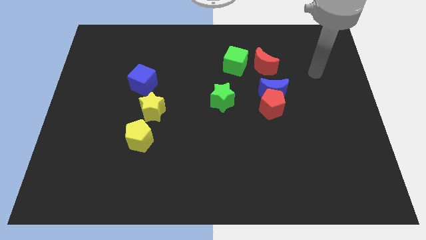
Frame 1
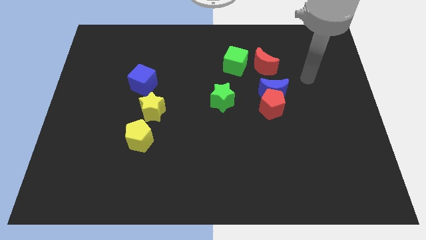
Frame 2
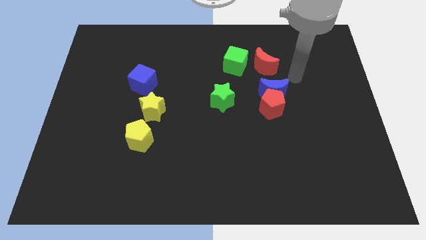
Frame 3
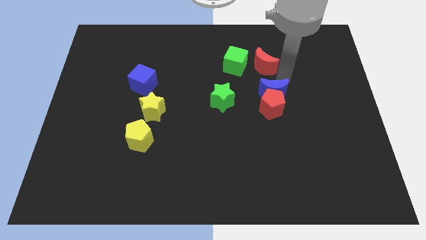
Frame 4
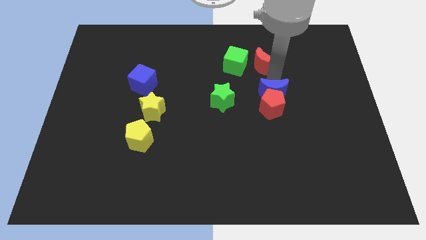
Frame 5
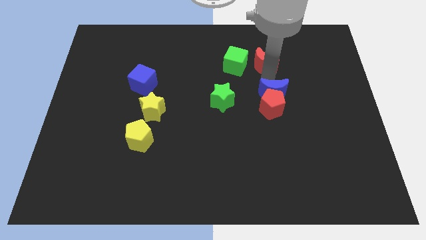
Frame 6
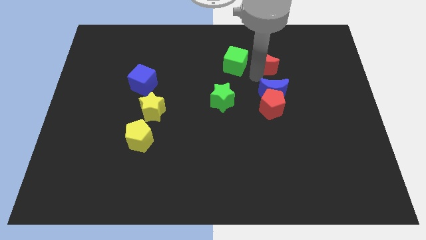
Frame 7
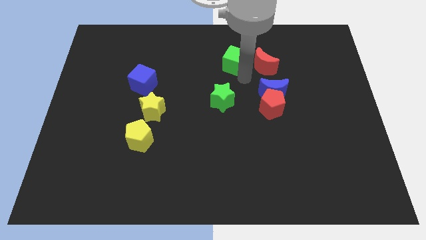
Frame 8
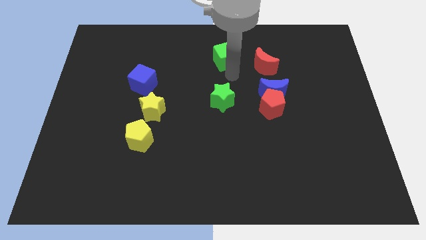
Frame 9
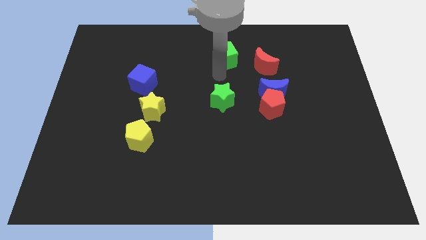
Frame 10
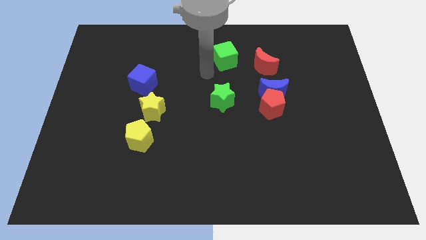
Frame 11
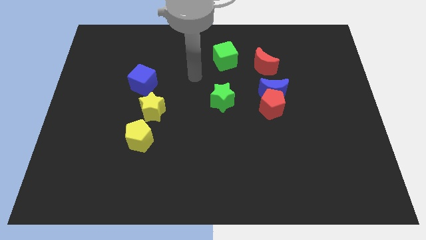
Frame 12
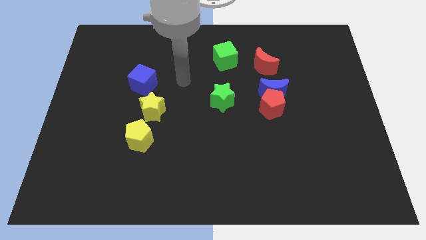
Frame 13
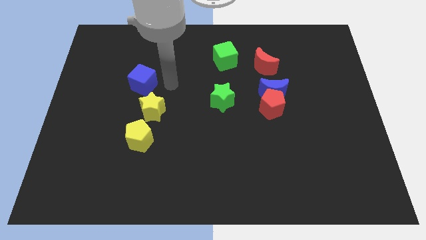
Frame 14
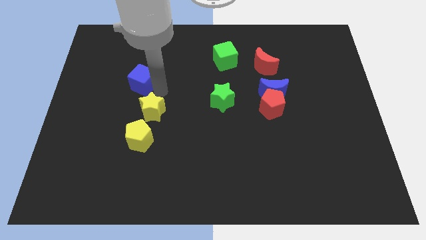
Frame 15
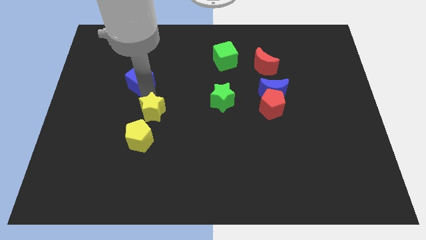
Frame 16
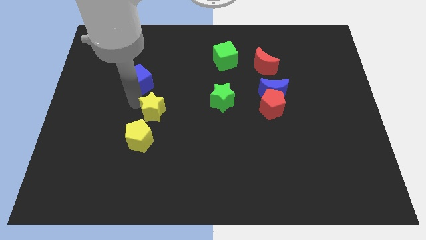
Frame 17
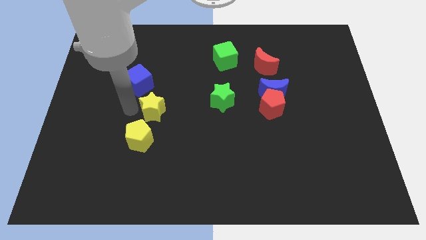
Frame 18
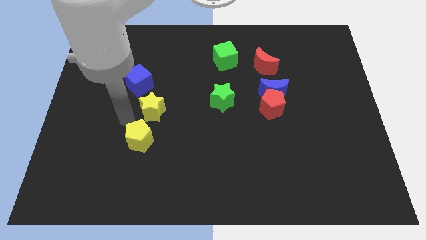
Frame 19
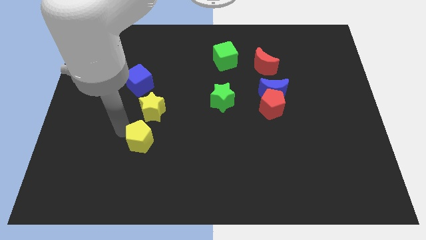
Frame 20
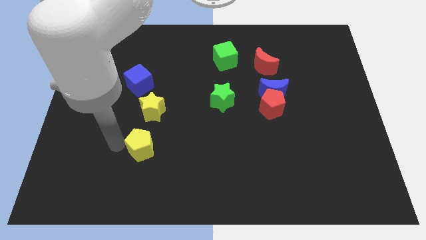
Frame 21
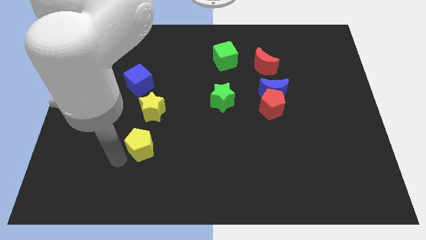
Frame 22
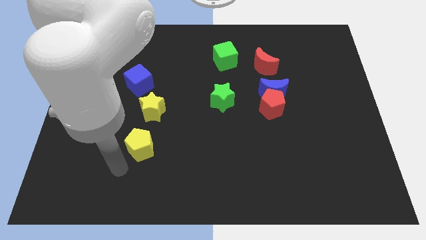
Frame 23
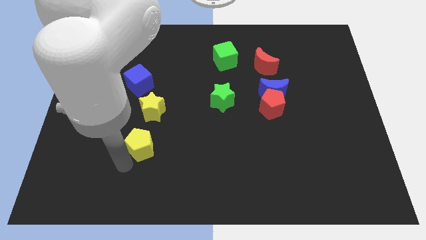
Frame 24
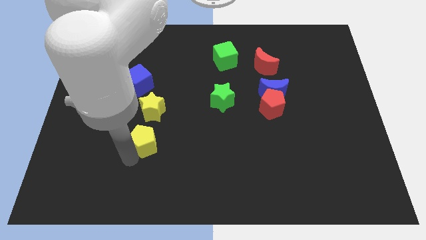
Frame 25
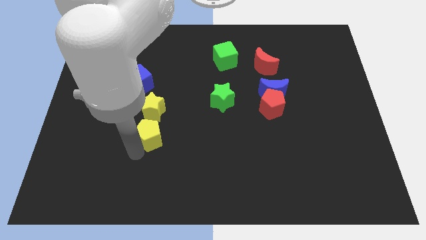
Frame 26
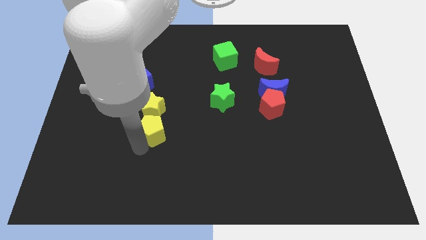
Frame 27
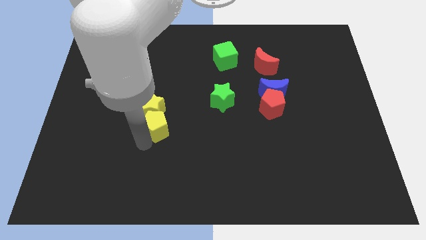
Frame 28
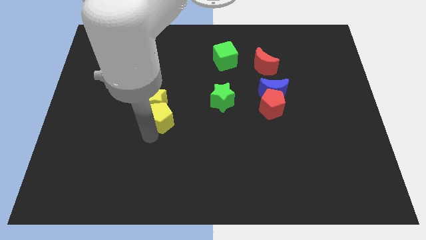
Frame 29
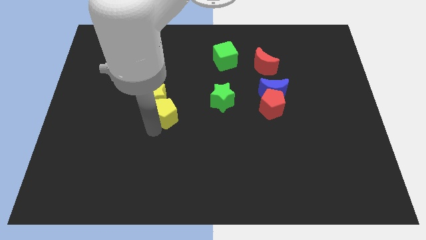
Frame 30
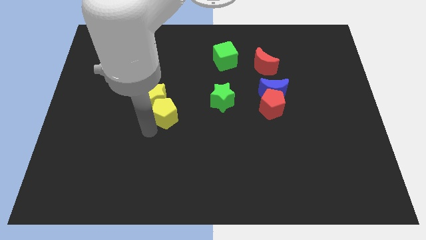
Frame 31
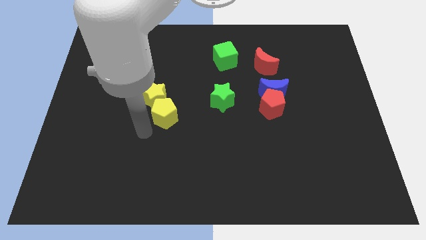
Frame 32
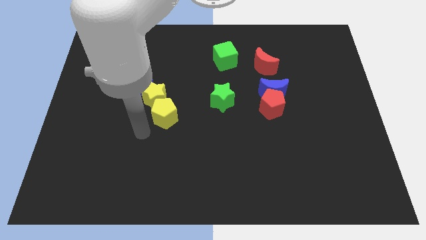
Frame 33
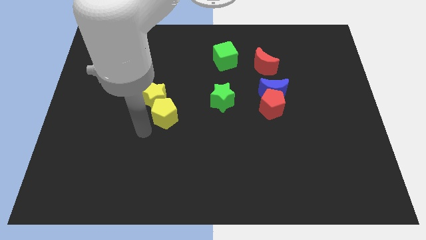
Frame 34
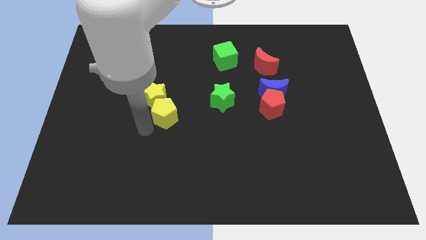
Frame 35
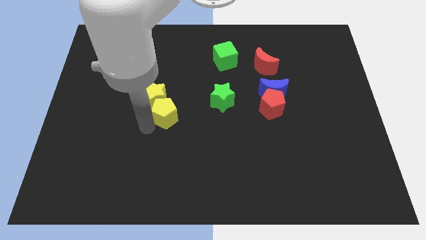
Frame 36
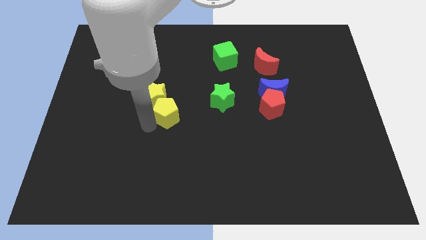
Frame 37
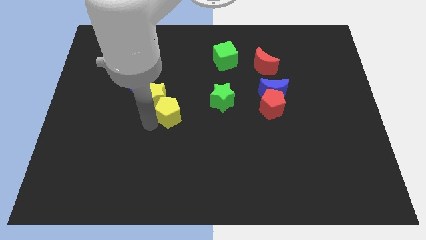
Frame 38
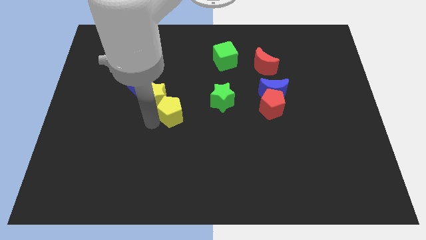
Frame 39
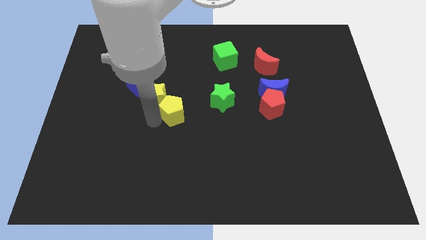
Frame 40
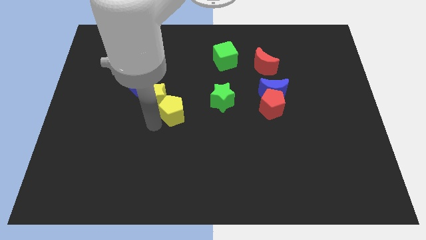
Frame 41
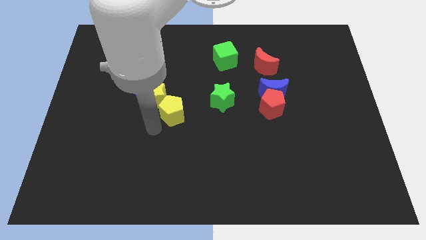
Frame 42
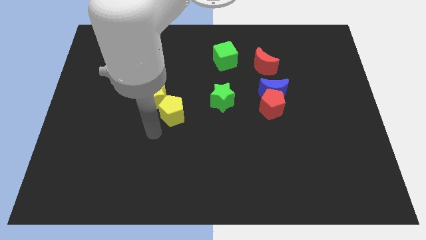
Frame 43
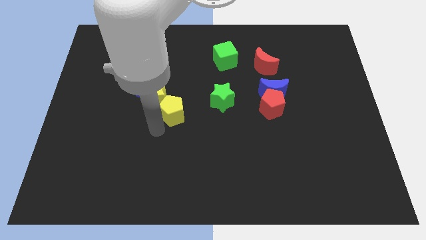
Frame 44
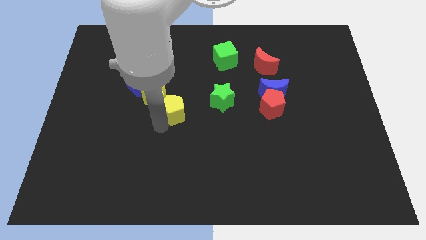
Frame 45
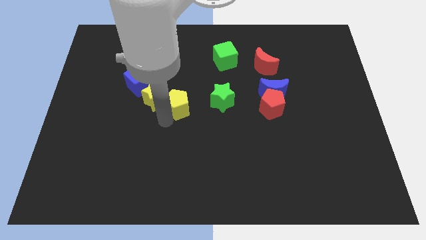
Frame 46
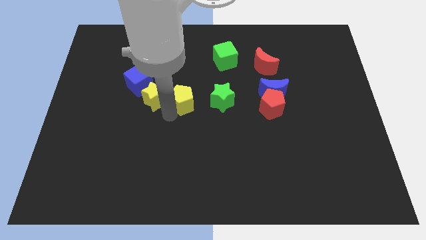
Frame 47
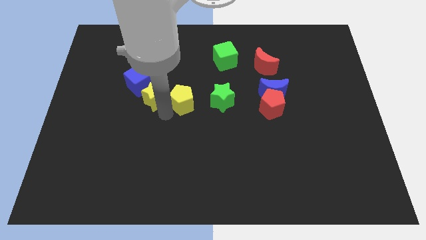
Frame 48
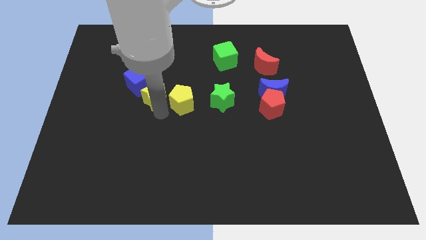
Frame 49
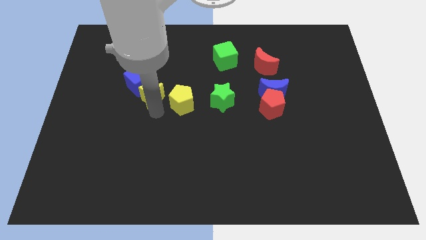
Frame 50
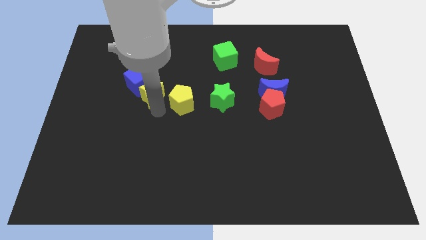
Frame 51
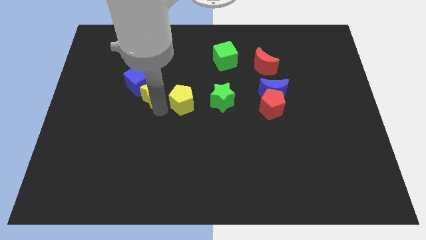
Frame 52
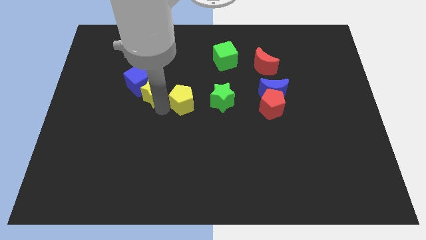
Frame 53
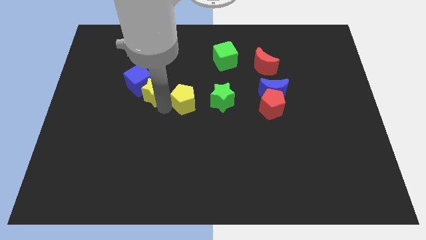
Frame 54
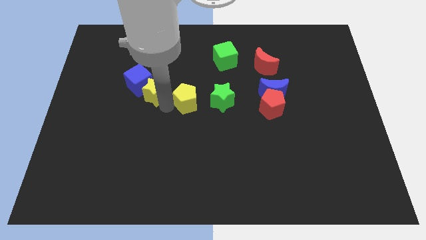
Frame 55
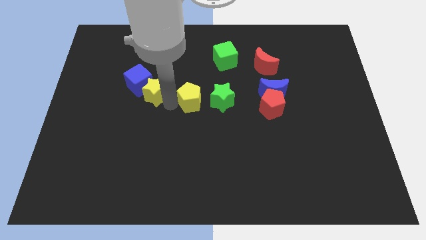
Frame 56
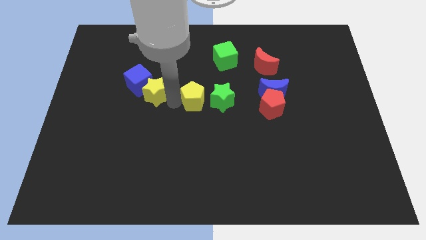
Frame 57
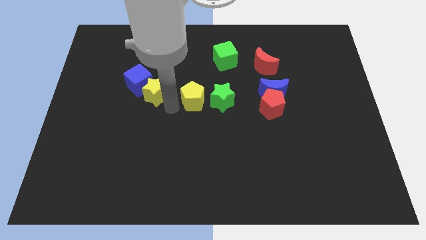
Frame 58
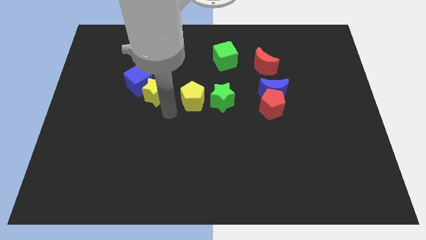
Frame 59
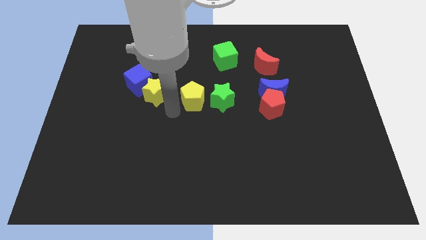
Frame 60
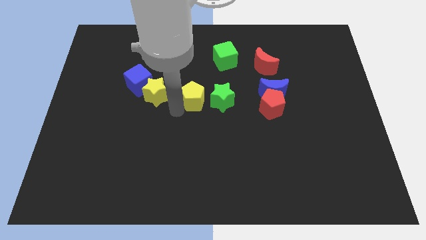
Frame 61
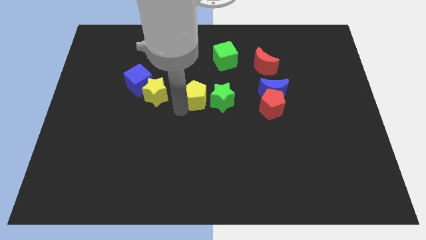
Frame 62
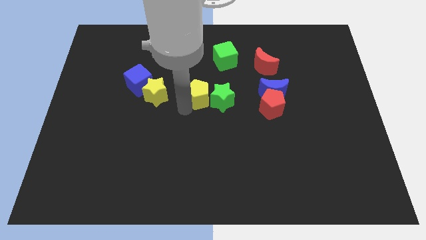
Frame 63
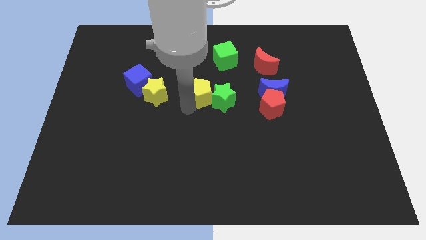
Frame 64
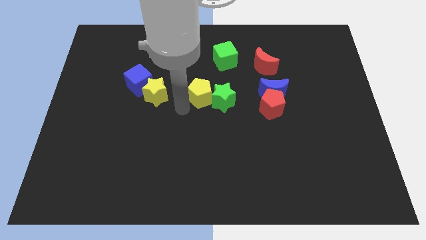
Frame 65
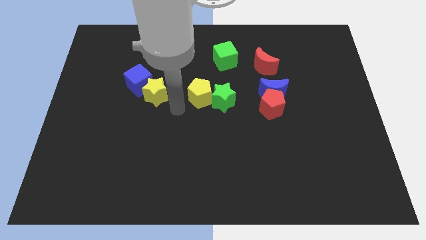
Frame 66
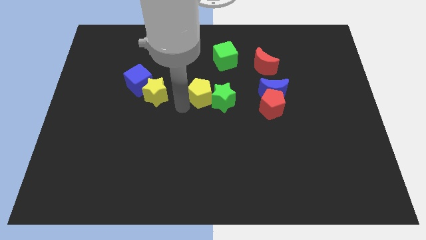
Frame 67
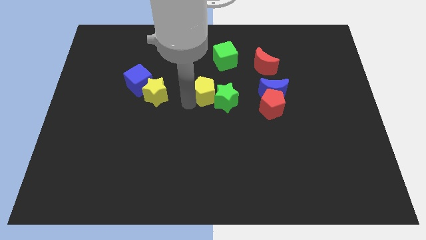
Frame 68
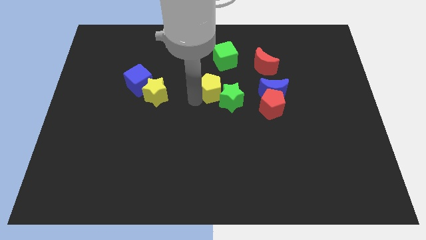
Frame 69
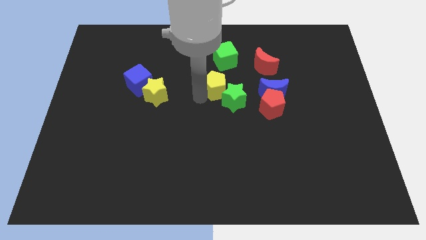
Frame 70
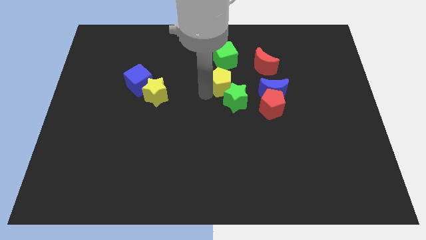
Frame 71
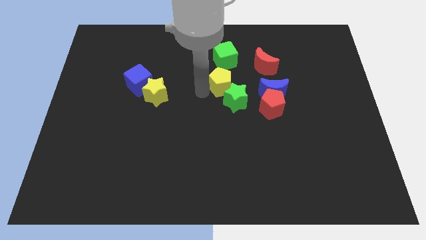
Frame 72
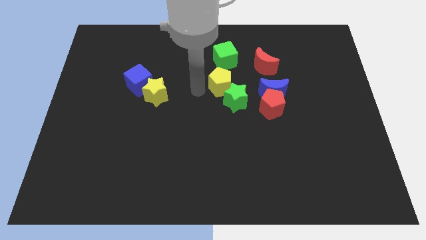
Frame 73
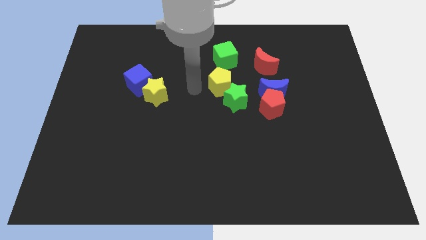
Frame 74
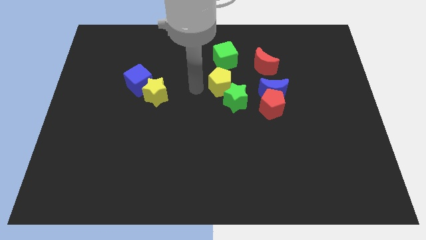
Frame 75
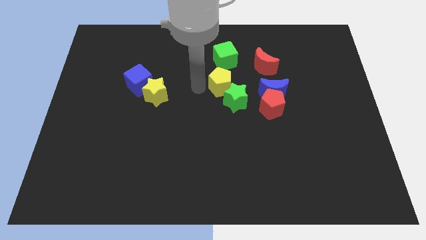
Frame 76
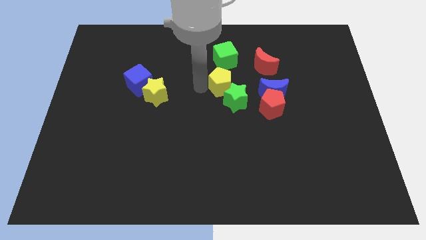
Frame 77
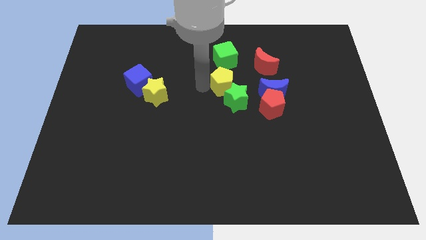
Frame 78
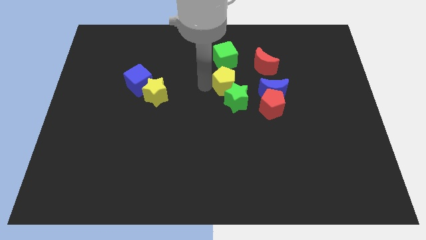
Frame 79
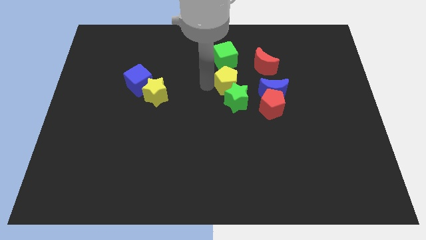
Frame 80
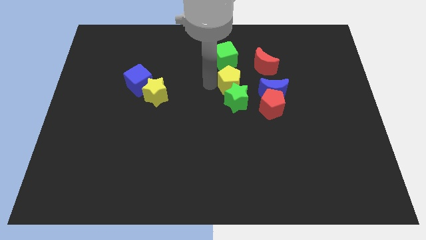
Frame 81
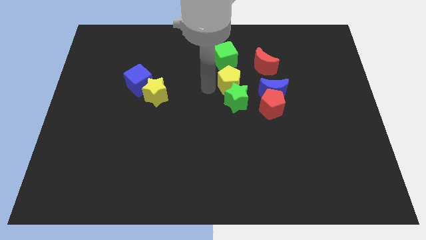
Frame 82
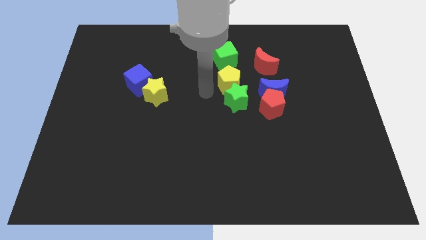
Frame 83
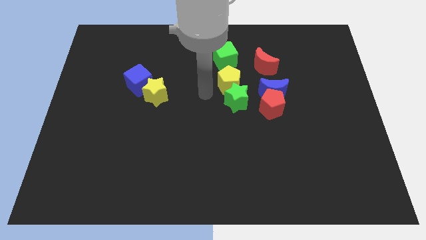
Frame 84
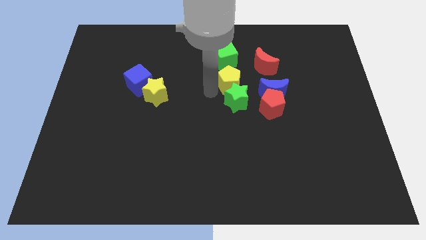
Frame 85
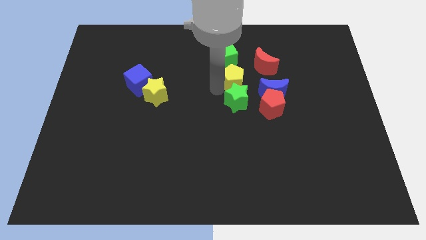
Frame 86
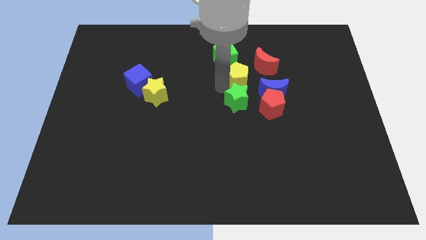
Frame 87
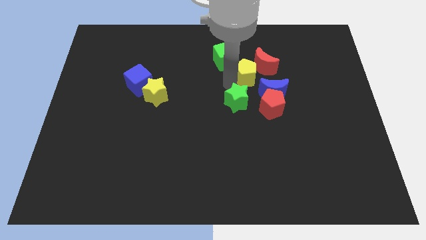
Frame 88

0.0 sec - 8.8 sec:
put the yellow pentagon close to the red moon
